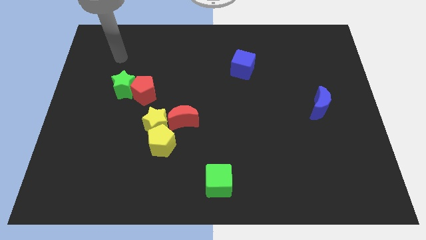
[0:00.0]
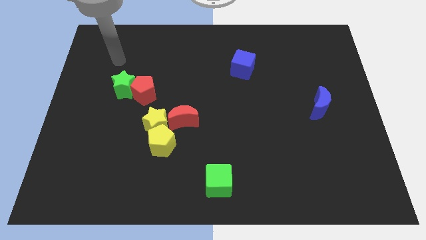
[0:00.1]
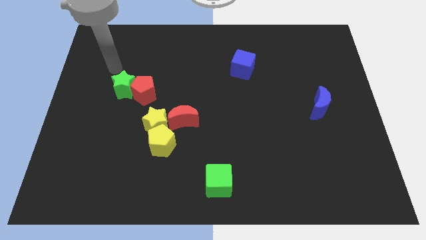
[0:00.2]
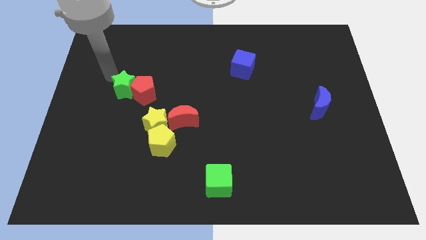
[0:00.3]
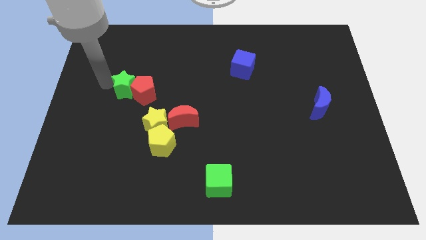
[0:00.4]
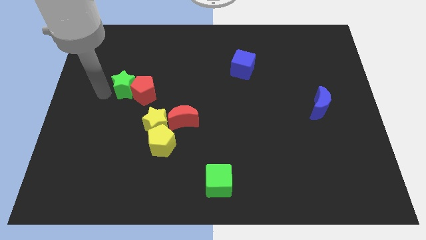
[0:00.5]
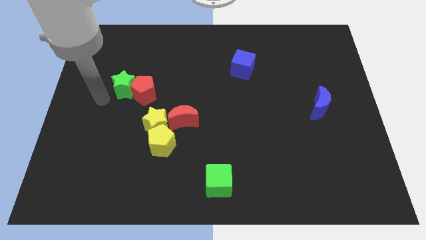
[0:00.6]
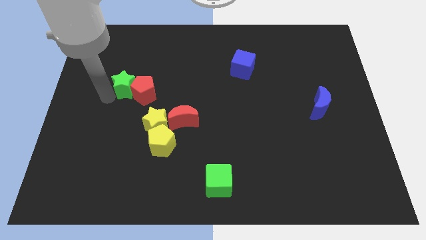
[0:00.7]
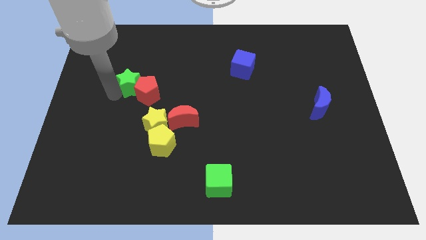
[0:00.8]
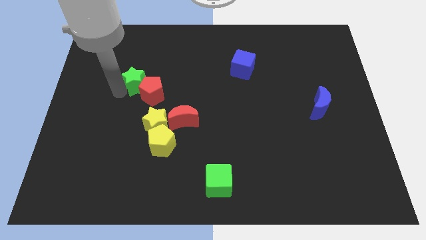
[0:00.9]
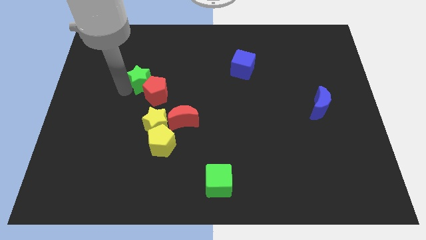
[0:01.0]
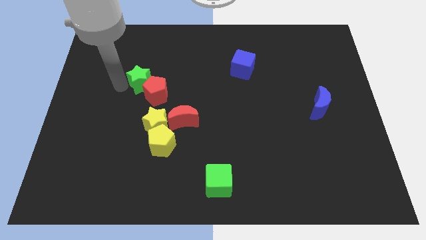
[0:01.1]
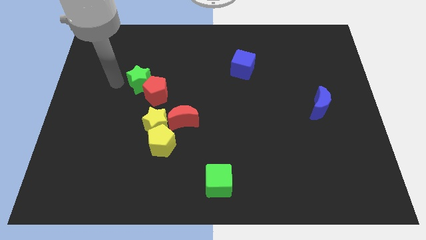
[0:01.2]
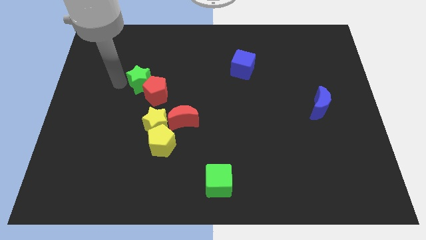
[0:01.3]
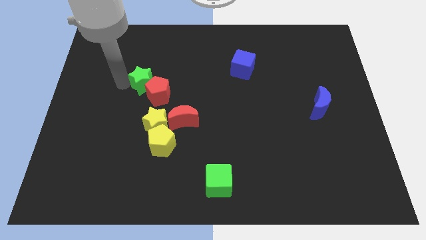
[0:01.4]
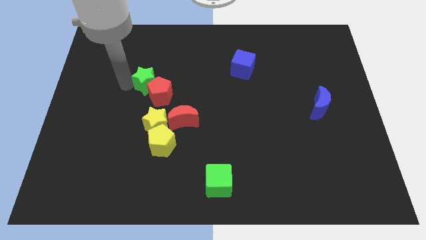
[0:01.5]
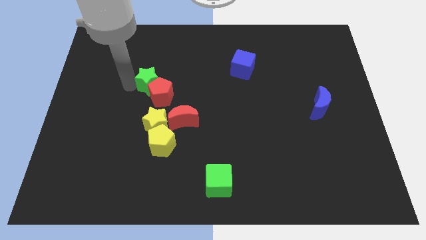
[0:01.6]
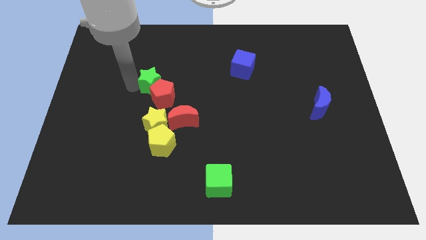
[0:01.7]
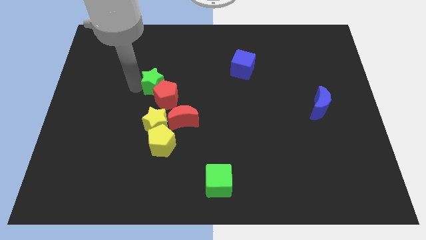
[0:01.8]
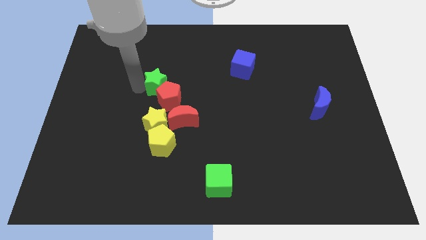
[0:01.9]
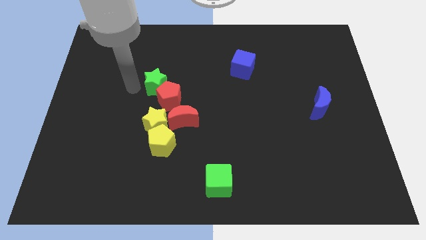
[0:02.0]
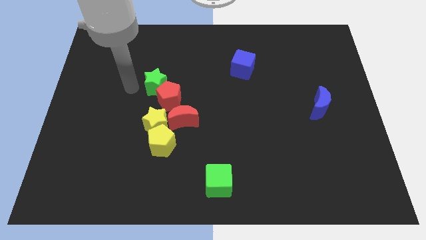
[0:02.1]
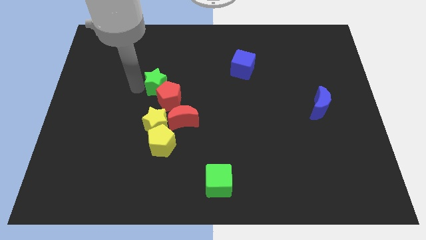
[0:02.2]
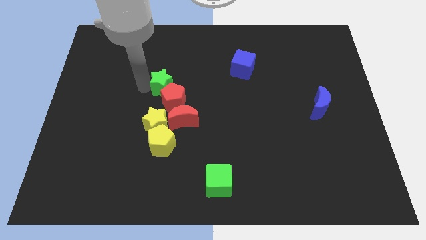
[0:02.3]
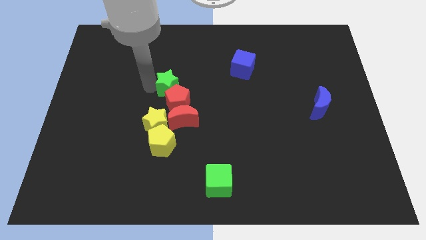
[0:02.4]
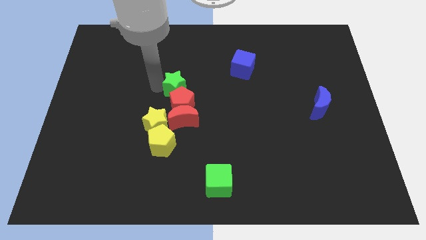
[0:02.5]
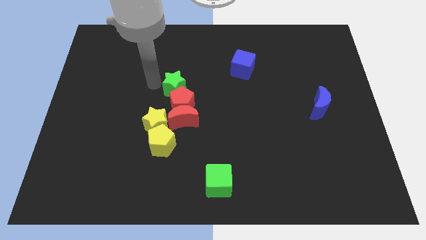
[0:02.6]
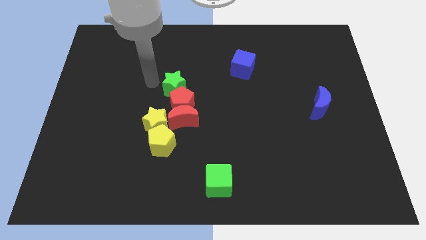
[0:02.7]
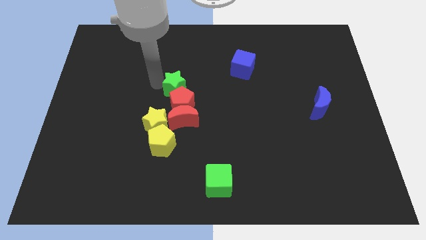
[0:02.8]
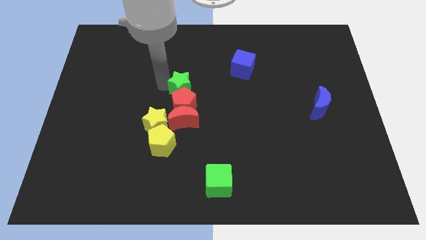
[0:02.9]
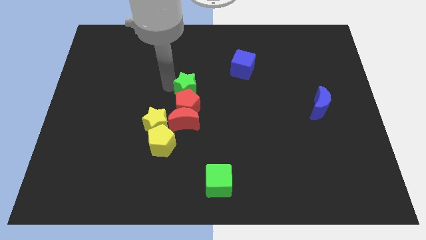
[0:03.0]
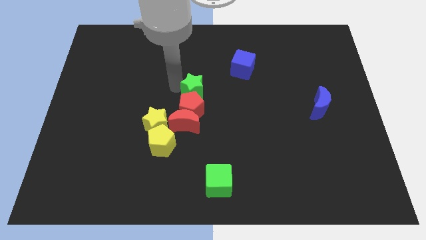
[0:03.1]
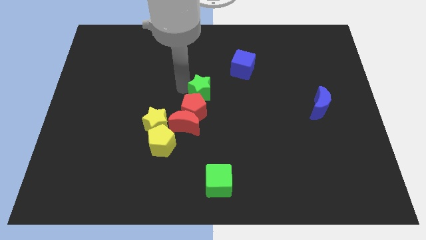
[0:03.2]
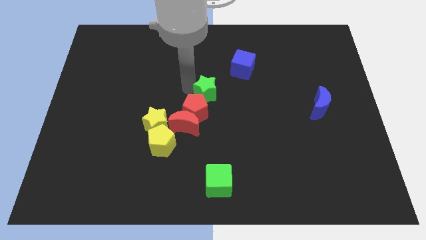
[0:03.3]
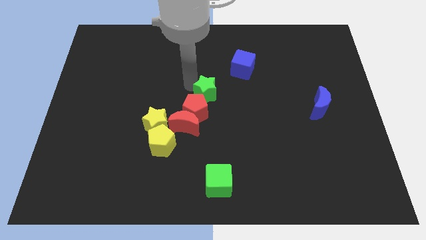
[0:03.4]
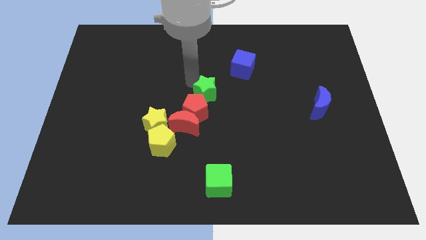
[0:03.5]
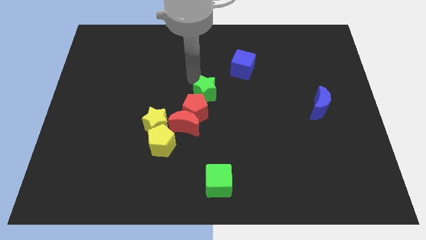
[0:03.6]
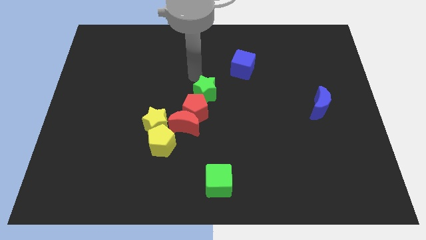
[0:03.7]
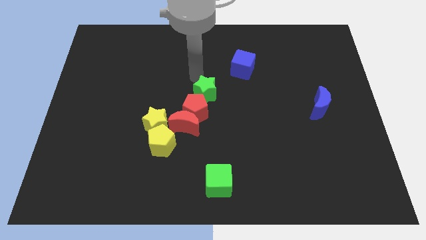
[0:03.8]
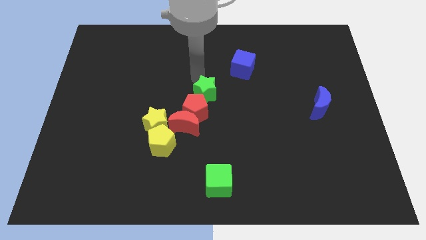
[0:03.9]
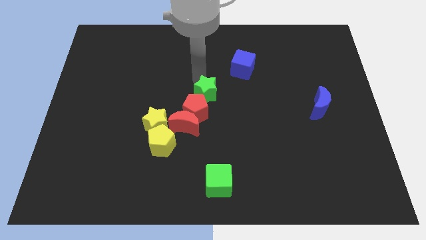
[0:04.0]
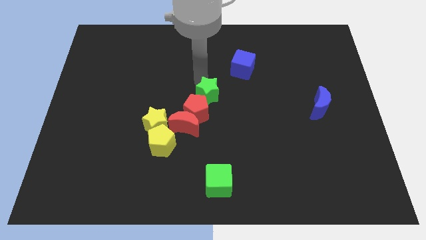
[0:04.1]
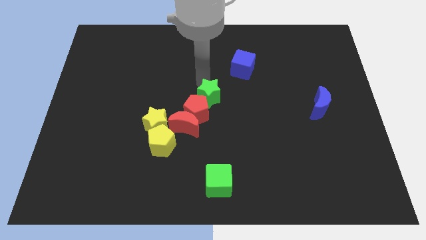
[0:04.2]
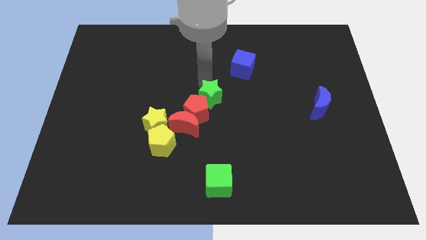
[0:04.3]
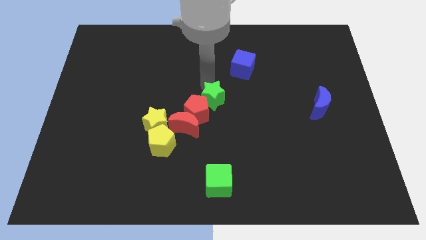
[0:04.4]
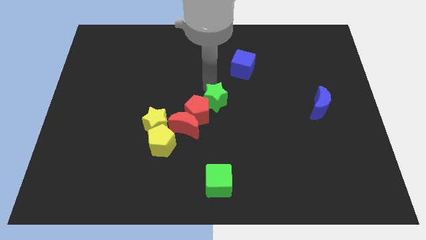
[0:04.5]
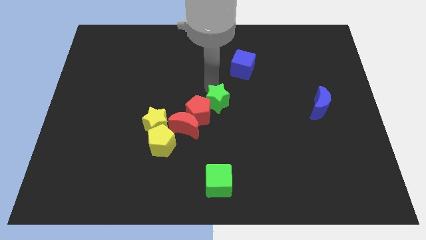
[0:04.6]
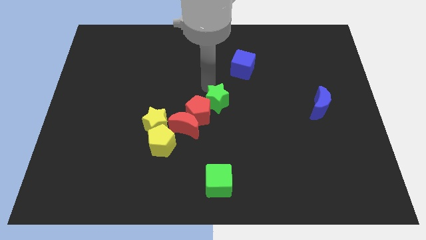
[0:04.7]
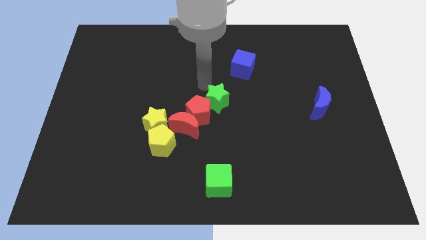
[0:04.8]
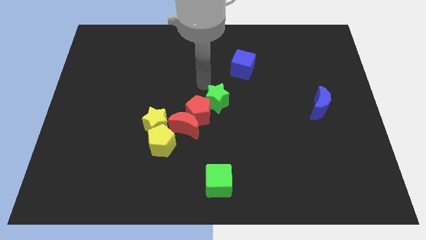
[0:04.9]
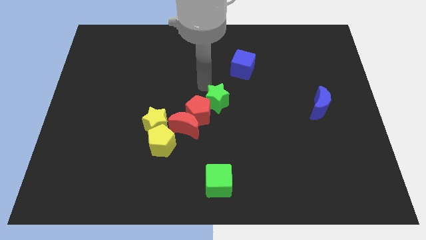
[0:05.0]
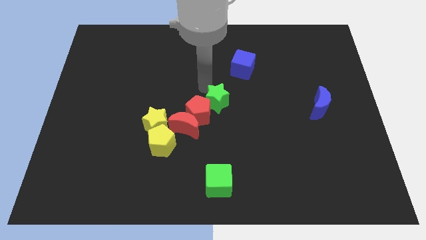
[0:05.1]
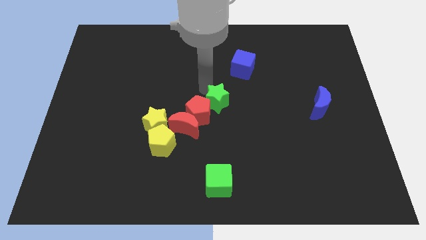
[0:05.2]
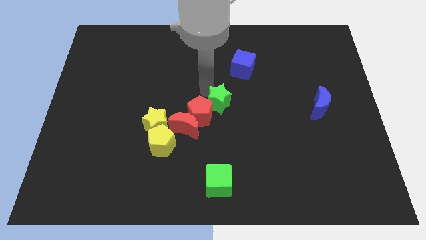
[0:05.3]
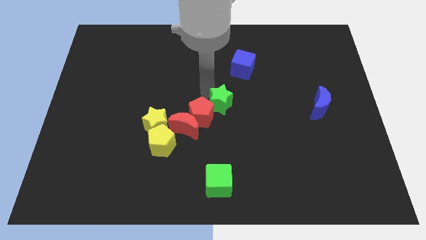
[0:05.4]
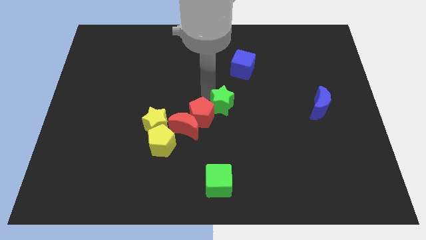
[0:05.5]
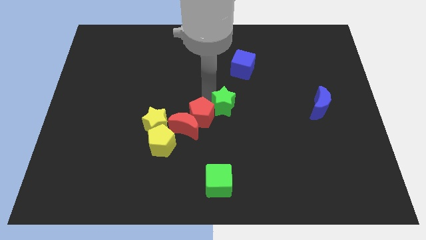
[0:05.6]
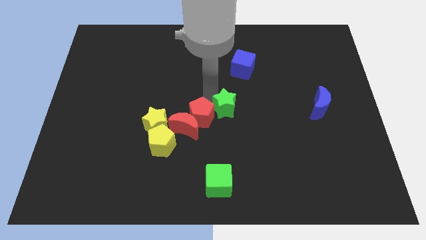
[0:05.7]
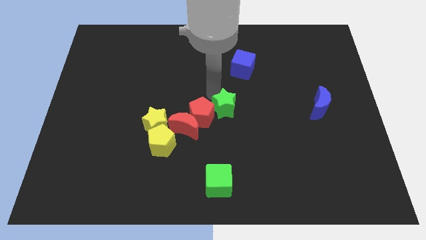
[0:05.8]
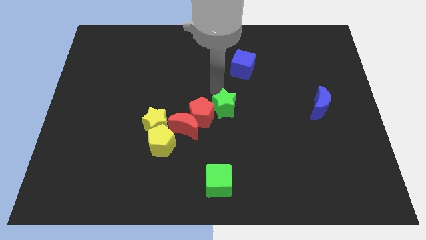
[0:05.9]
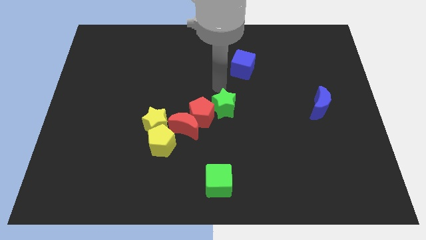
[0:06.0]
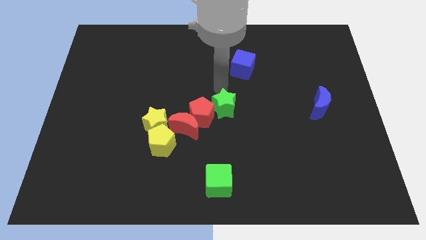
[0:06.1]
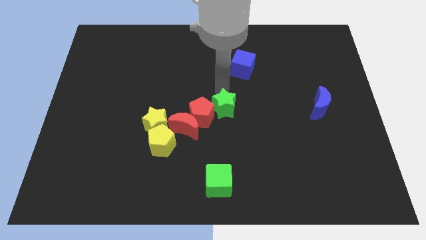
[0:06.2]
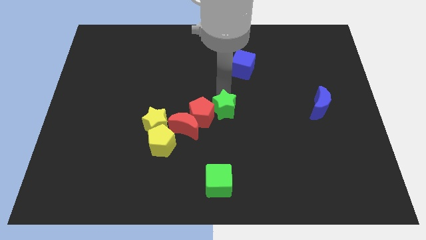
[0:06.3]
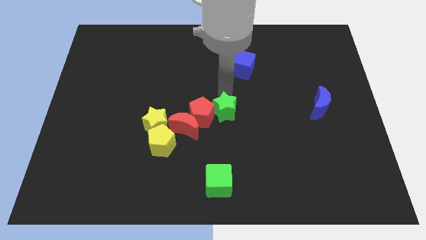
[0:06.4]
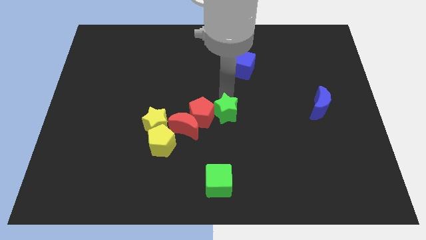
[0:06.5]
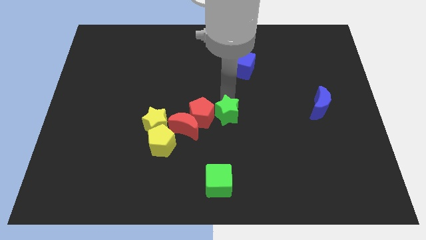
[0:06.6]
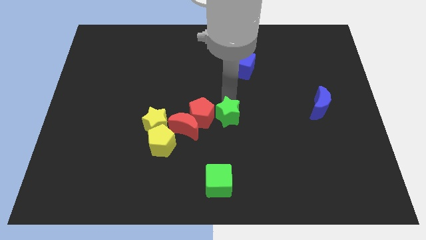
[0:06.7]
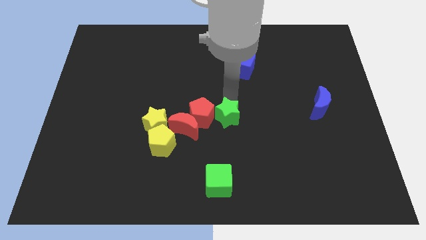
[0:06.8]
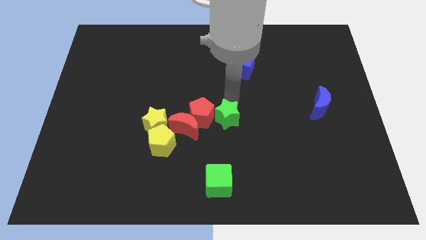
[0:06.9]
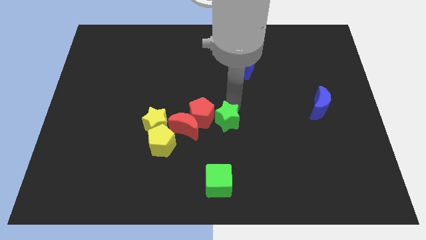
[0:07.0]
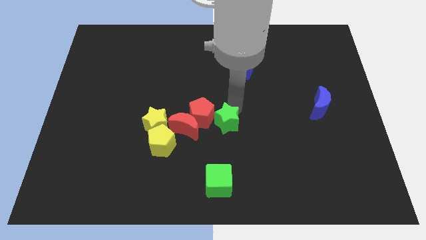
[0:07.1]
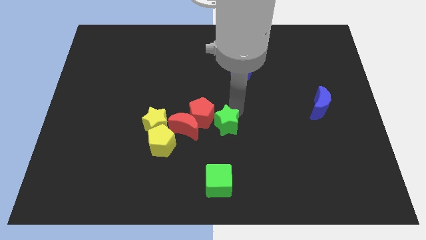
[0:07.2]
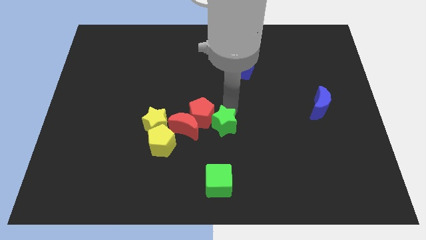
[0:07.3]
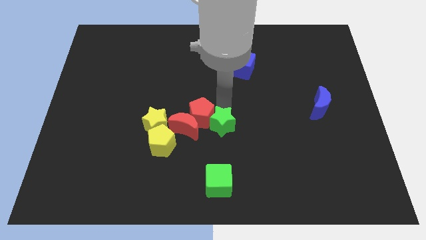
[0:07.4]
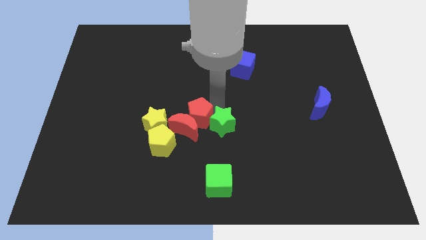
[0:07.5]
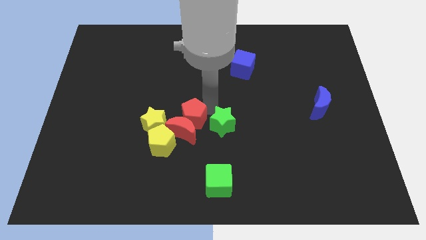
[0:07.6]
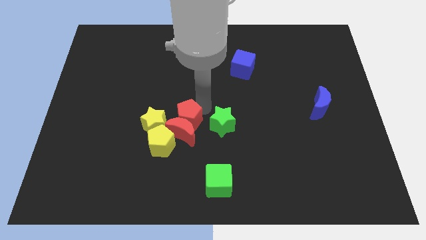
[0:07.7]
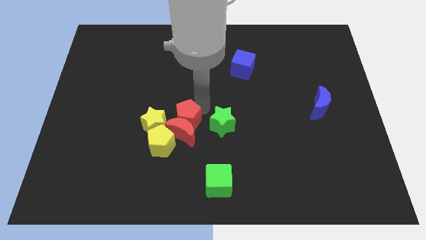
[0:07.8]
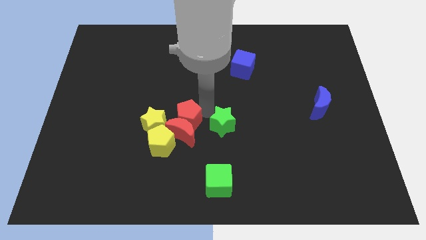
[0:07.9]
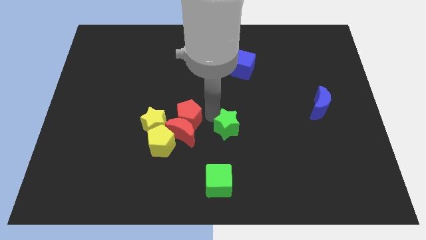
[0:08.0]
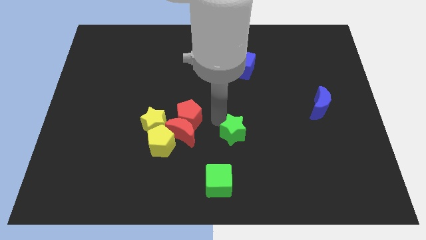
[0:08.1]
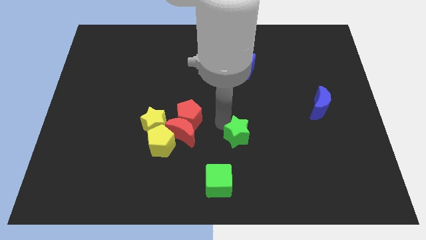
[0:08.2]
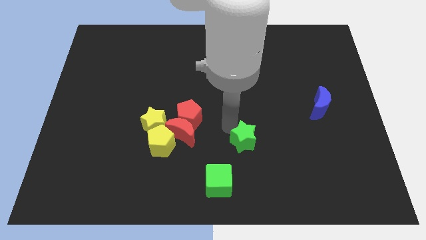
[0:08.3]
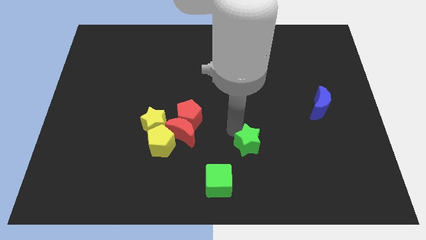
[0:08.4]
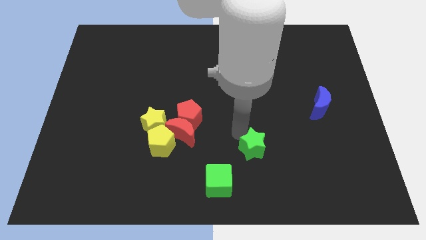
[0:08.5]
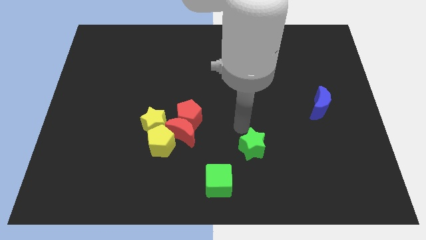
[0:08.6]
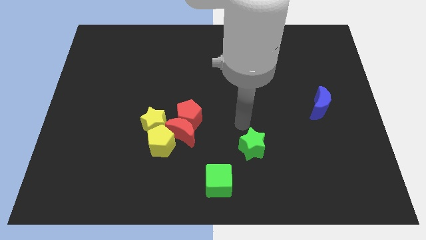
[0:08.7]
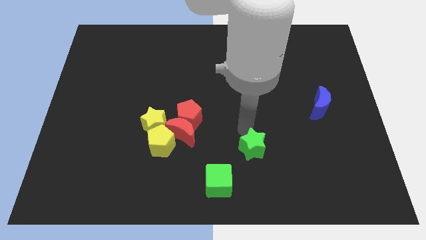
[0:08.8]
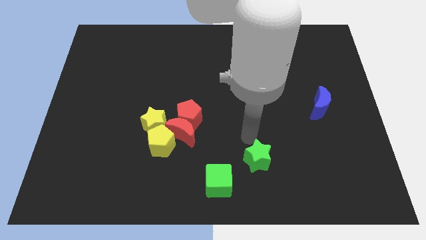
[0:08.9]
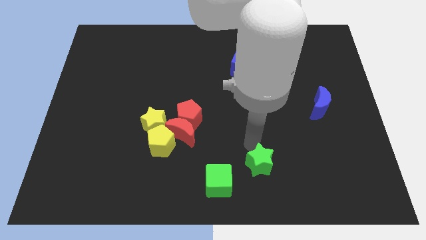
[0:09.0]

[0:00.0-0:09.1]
put the green star right of the green cube
